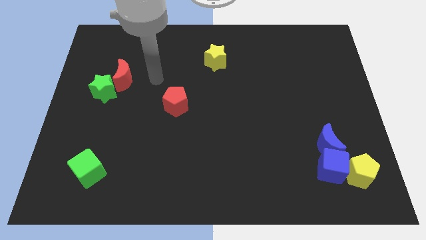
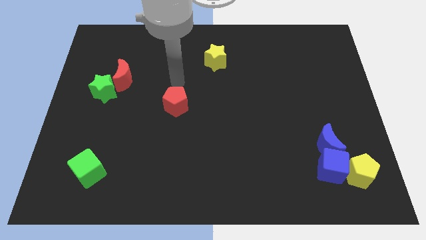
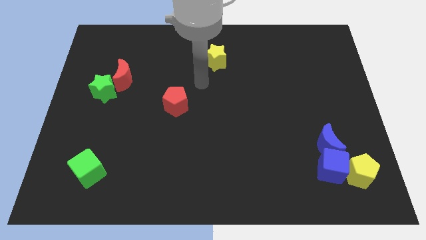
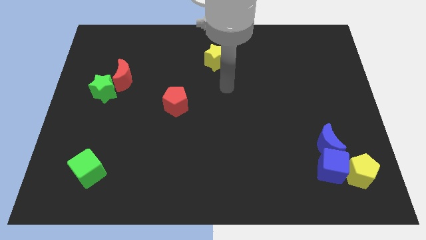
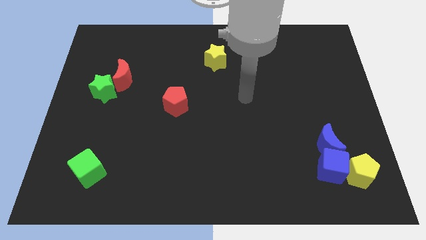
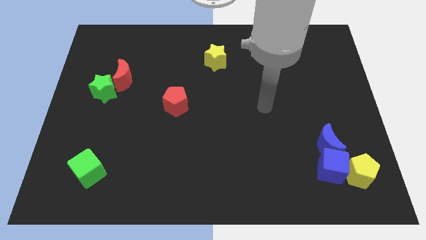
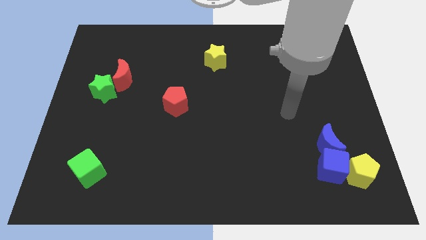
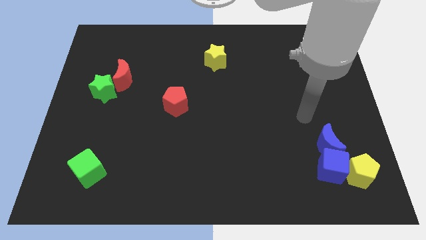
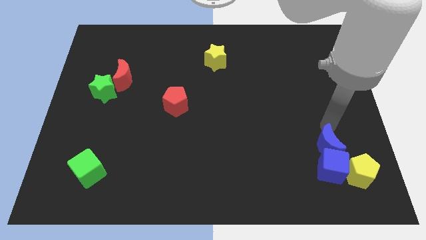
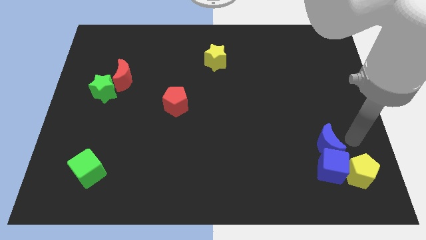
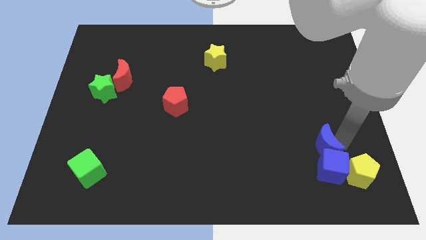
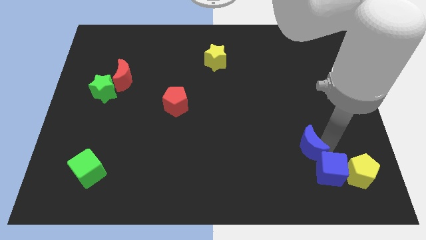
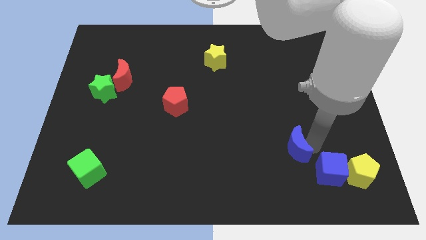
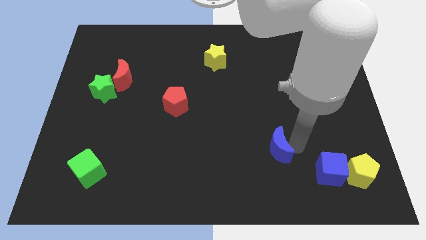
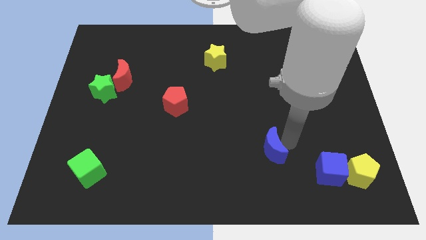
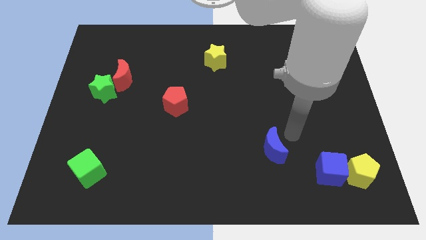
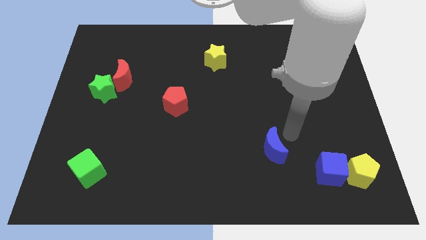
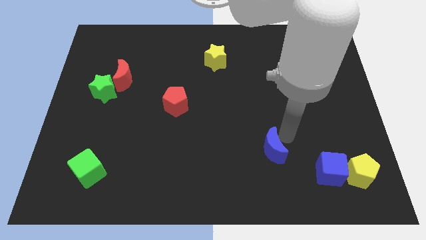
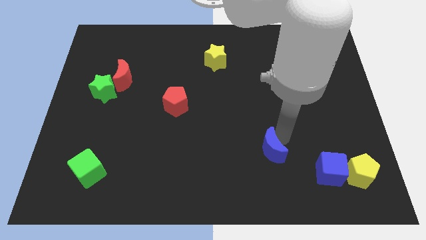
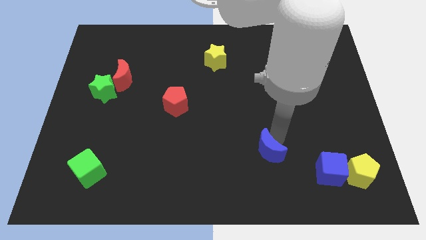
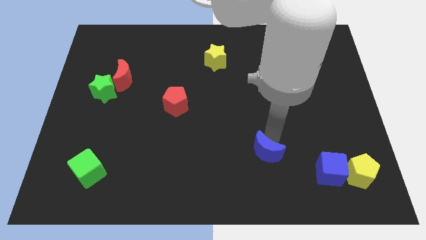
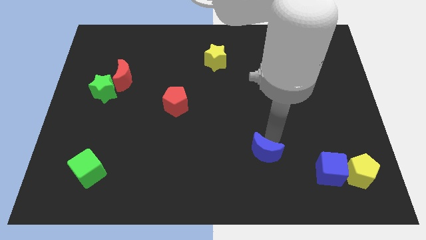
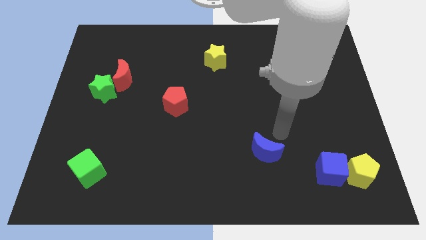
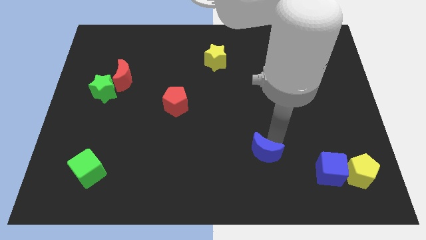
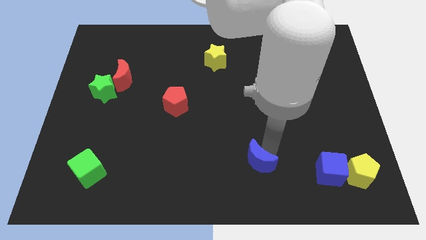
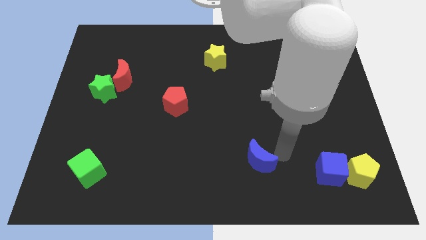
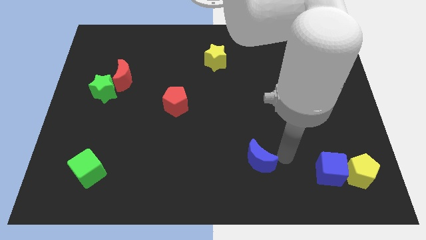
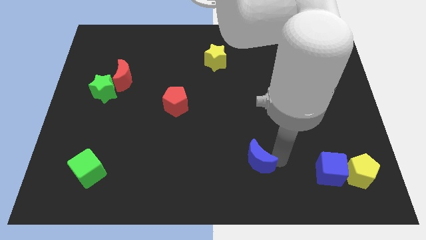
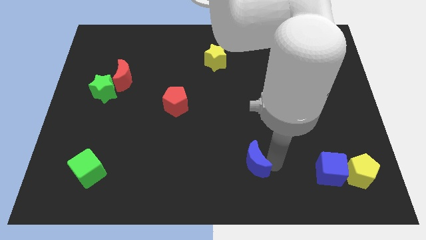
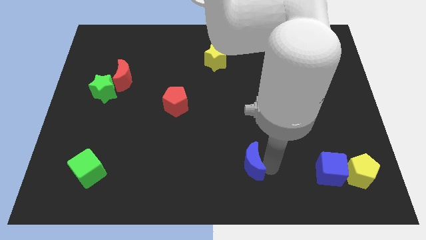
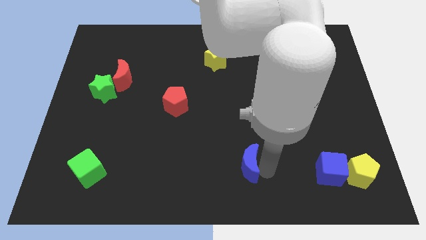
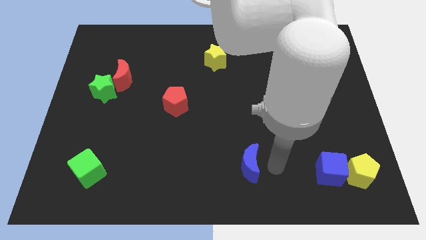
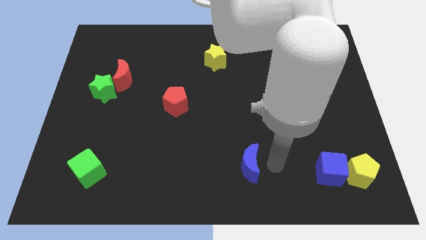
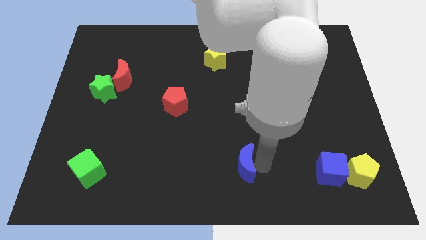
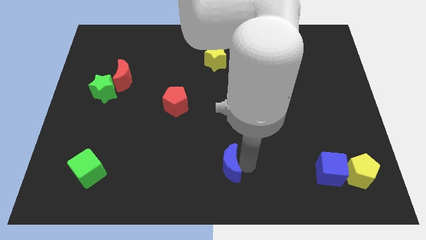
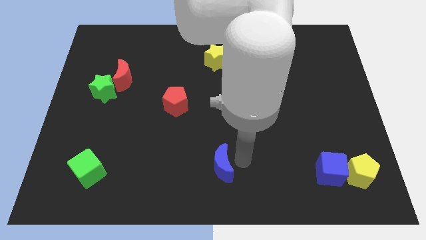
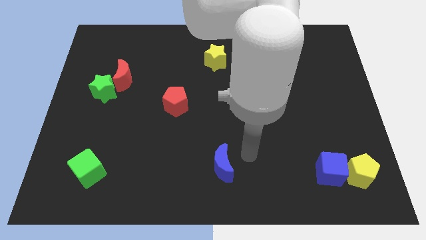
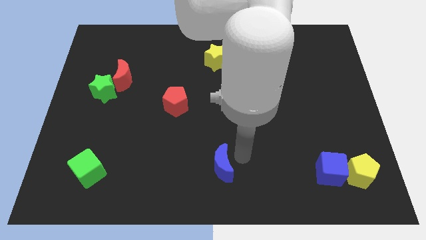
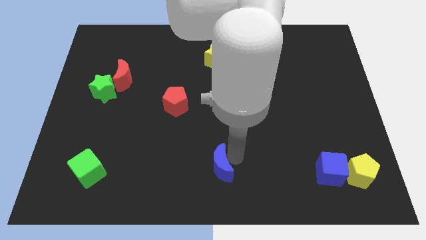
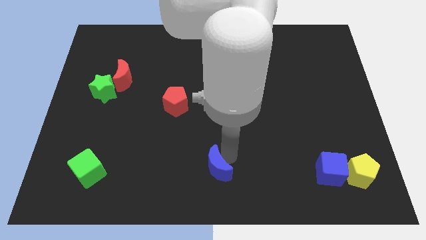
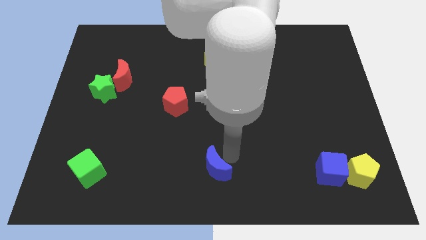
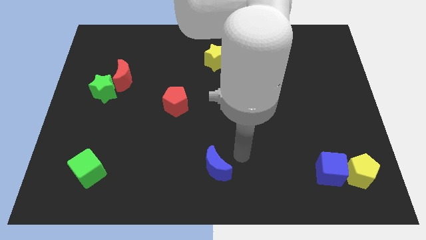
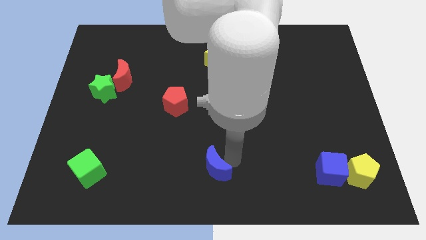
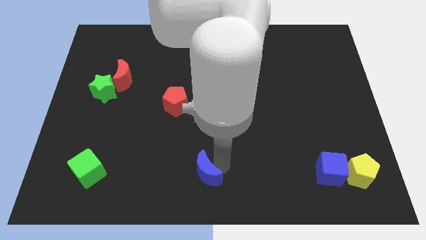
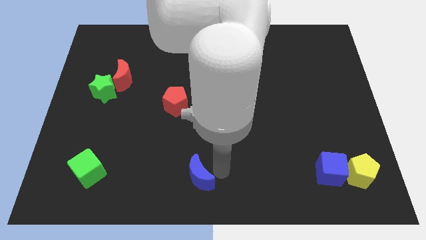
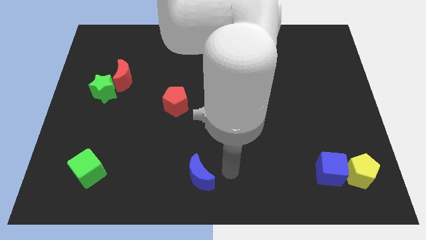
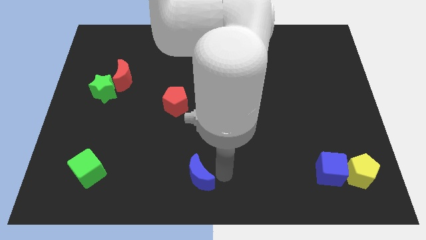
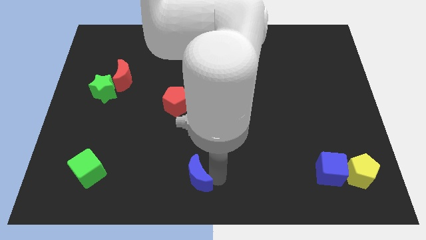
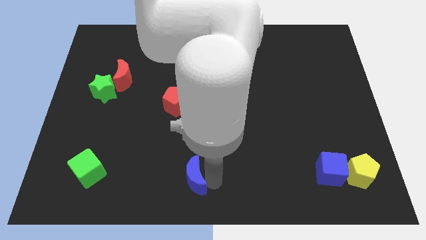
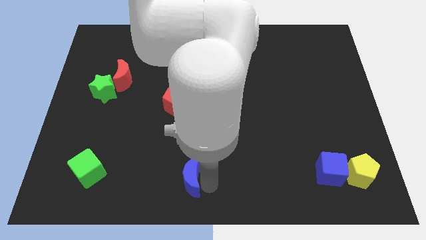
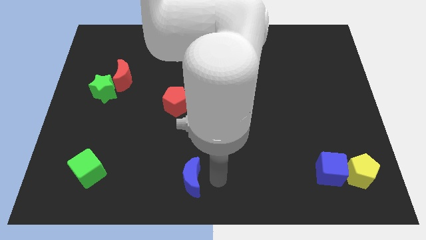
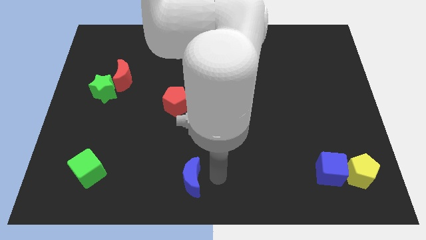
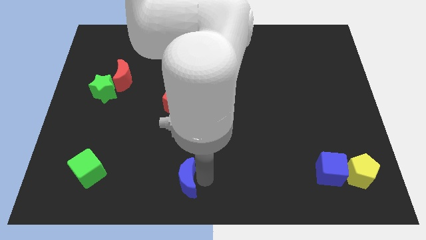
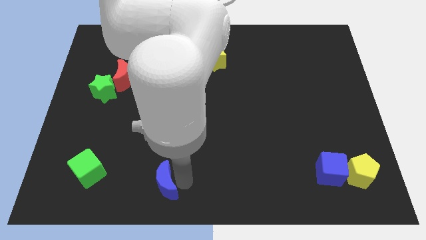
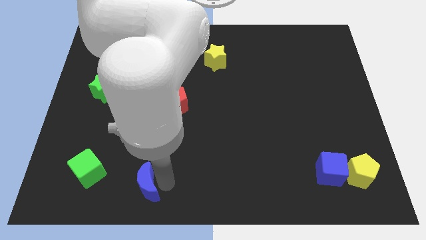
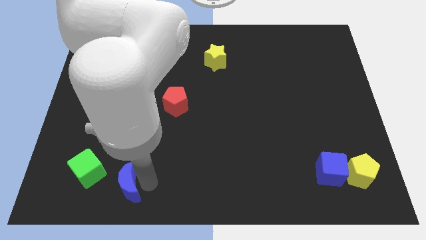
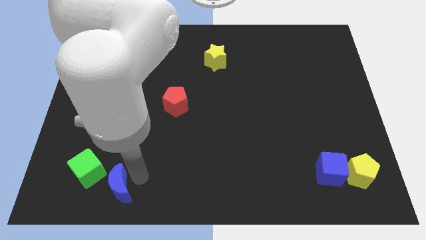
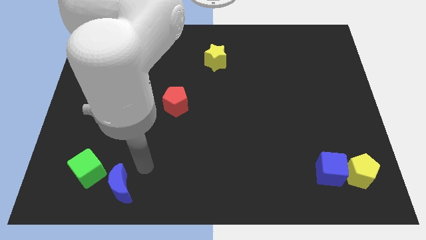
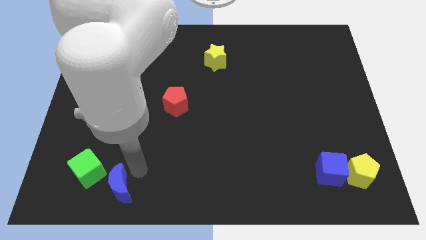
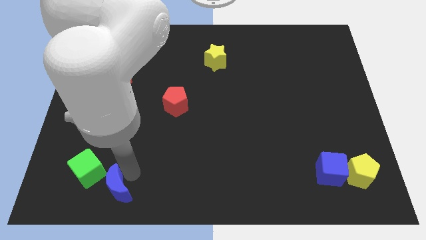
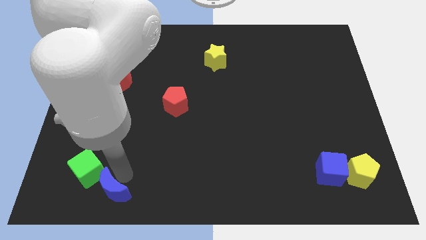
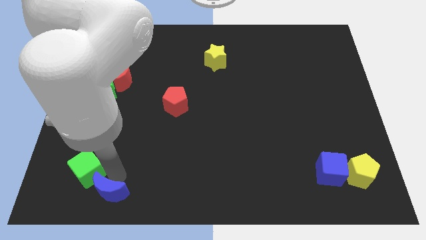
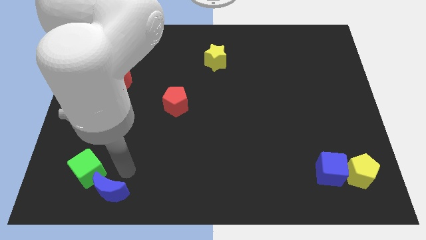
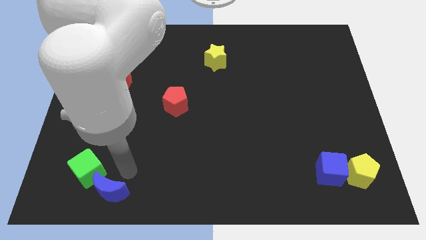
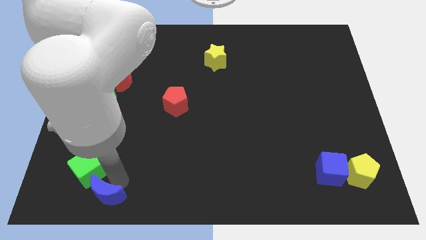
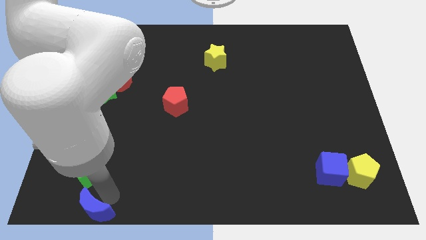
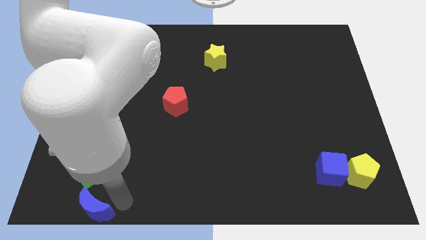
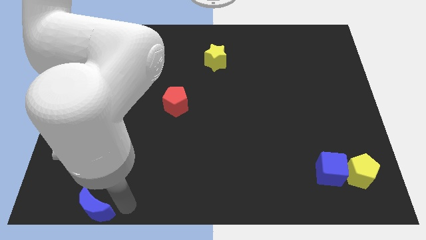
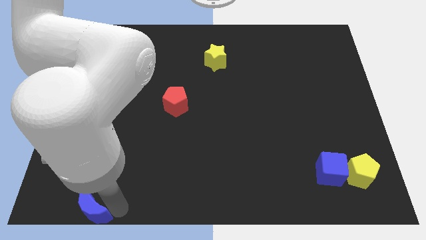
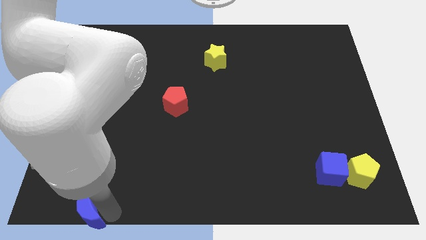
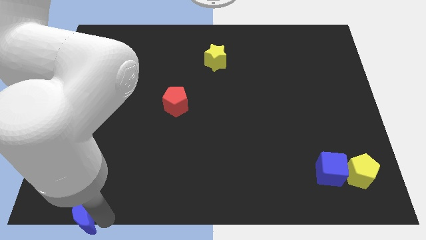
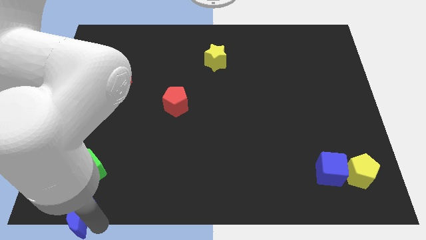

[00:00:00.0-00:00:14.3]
push the blue moon to the bottom left

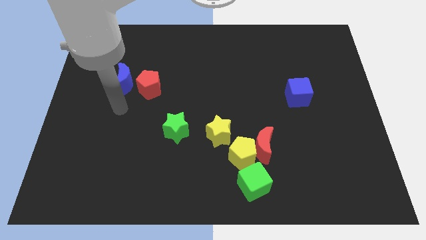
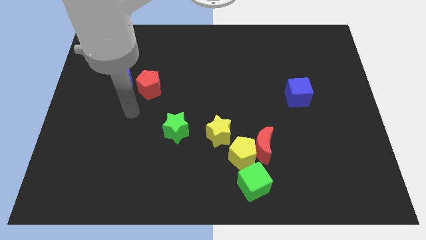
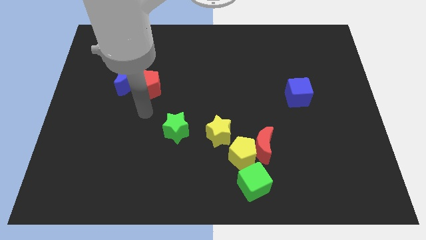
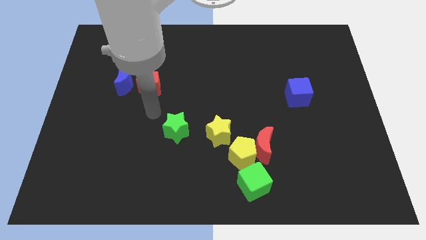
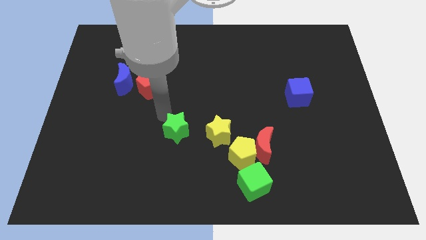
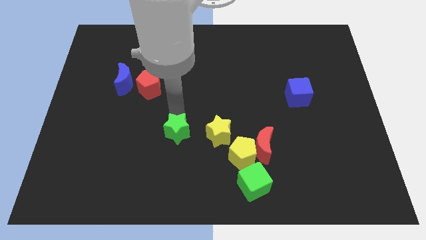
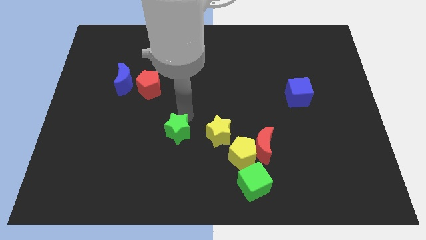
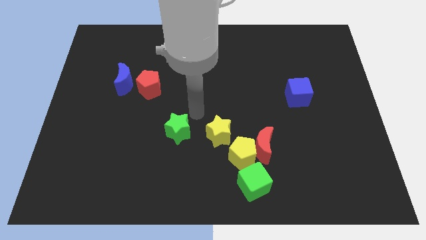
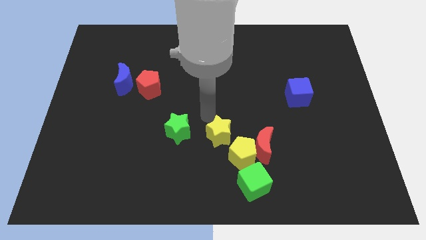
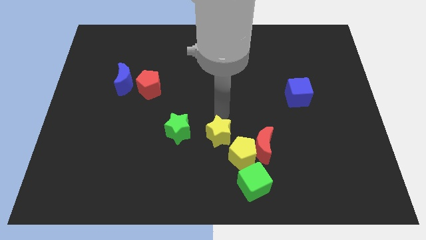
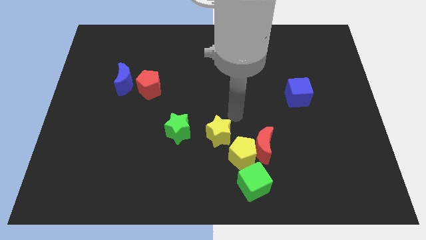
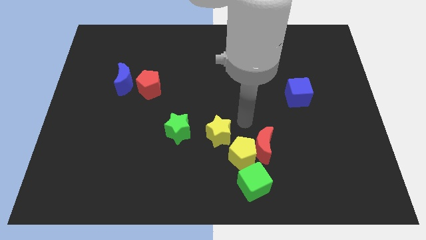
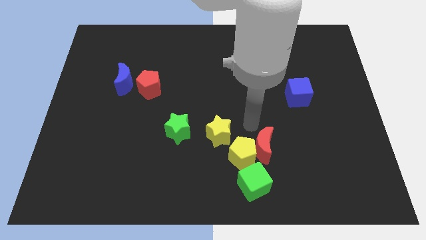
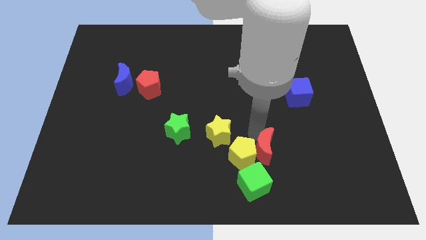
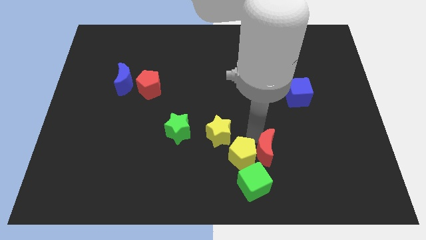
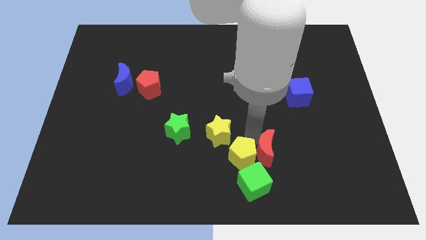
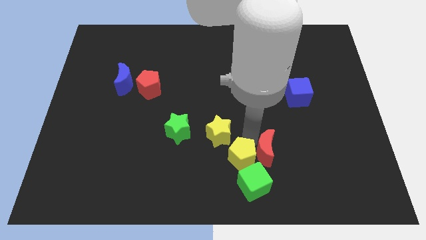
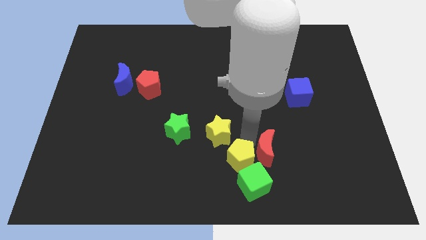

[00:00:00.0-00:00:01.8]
move the yellow pentagon to the bottom side
